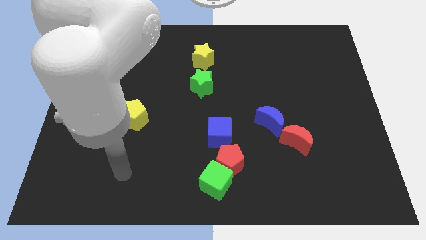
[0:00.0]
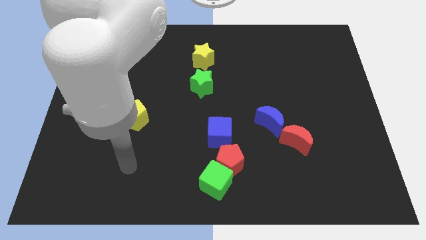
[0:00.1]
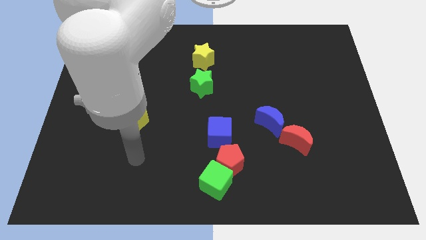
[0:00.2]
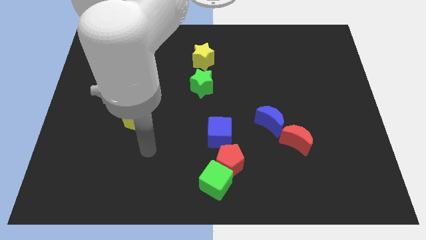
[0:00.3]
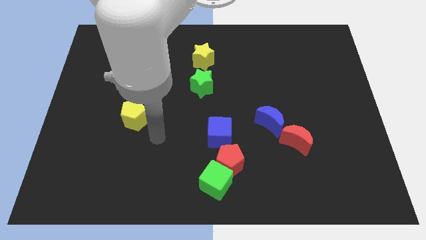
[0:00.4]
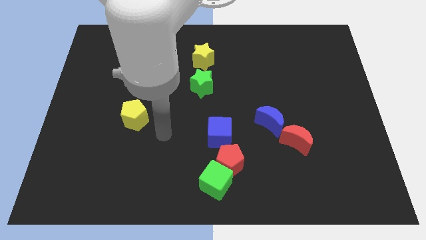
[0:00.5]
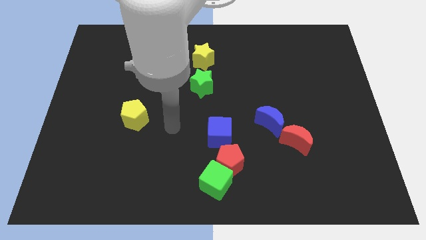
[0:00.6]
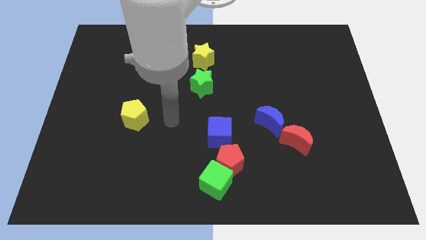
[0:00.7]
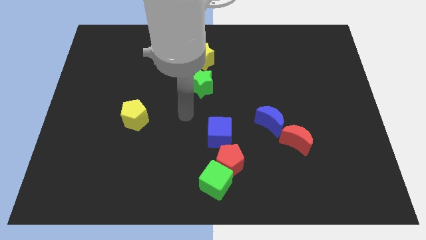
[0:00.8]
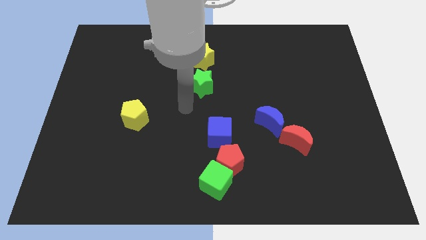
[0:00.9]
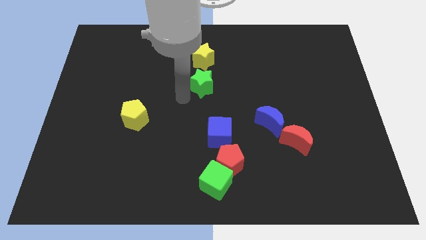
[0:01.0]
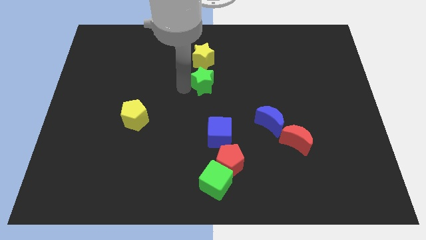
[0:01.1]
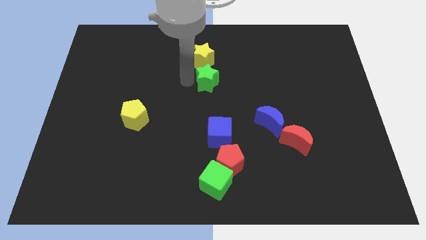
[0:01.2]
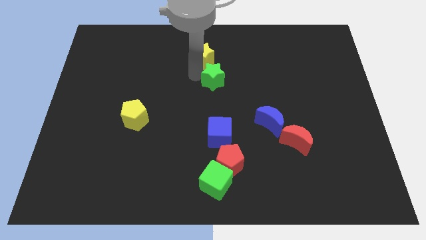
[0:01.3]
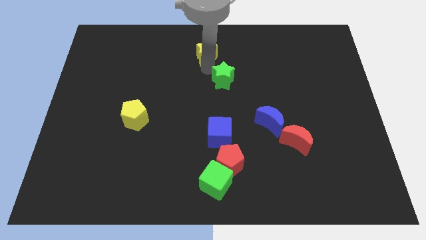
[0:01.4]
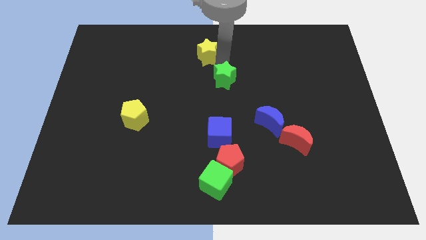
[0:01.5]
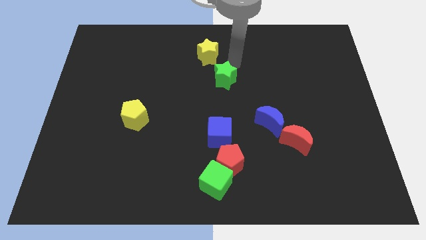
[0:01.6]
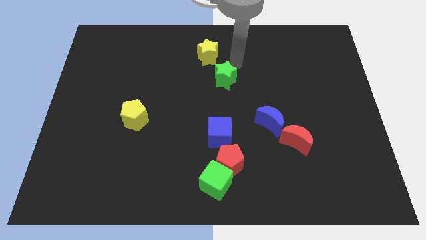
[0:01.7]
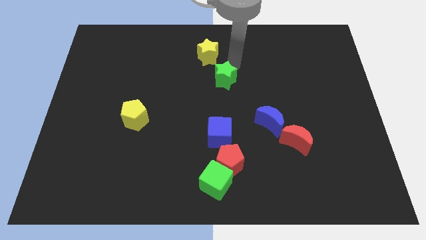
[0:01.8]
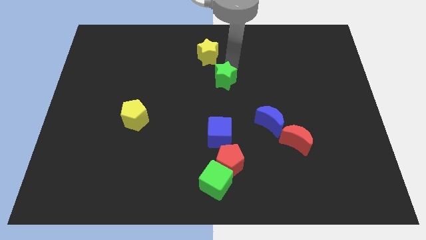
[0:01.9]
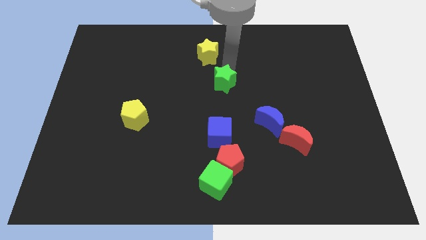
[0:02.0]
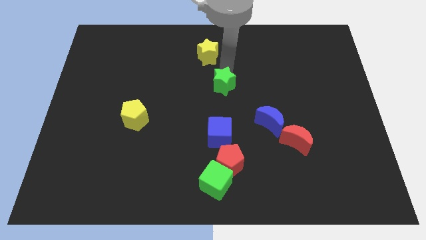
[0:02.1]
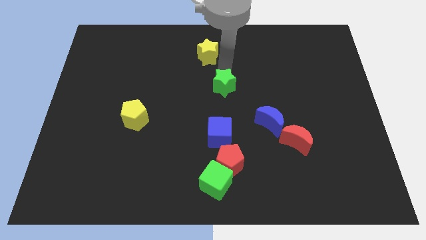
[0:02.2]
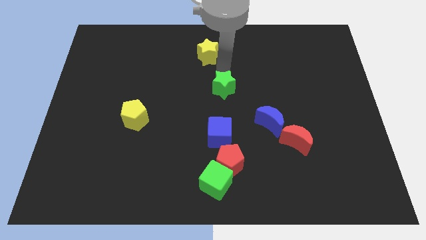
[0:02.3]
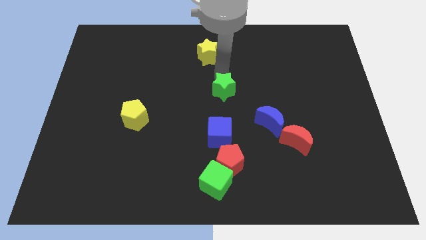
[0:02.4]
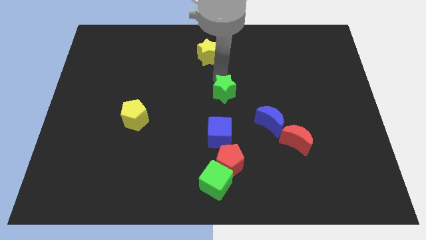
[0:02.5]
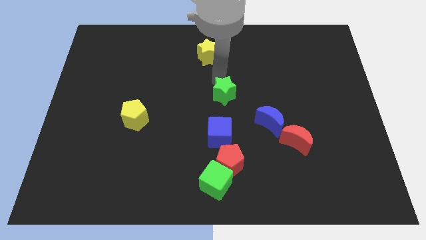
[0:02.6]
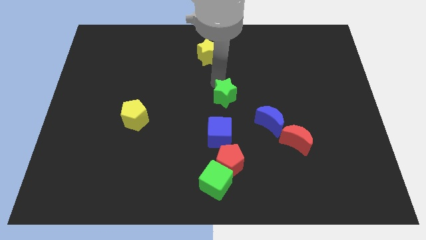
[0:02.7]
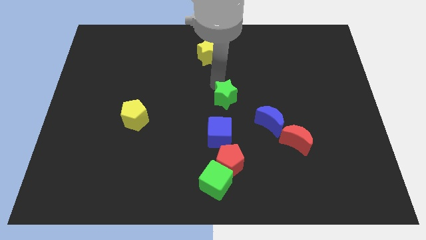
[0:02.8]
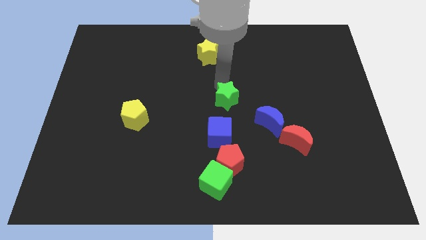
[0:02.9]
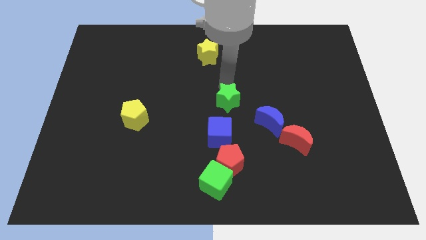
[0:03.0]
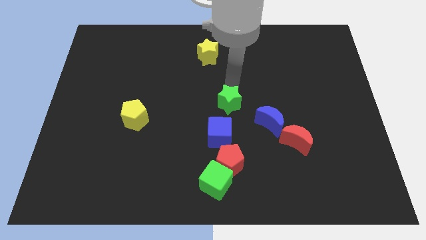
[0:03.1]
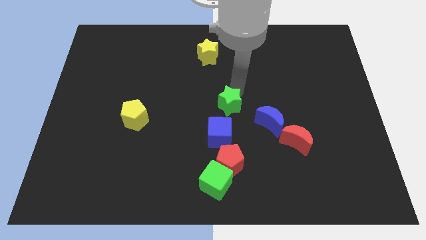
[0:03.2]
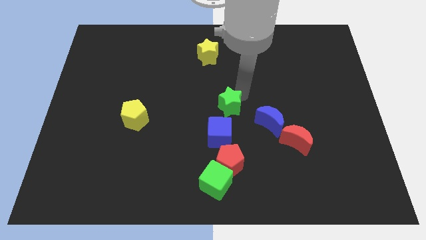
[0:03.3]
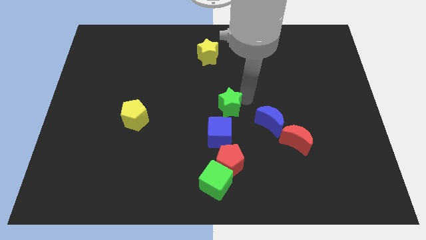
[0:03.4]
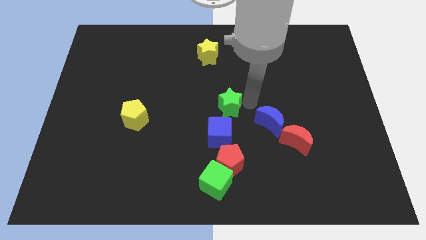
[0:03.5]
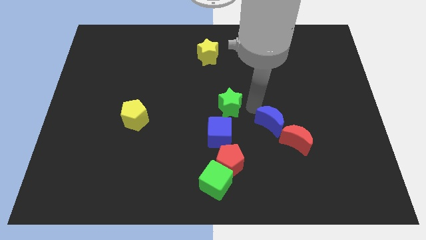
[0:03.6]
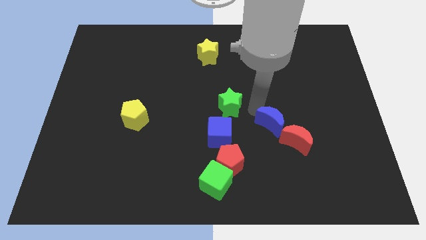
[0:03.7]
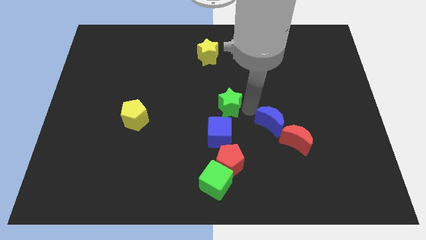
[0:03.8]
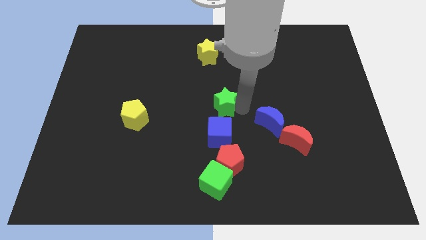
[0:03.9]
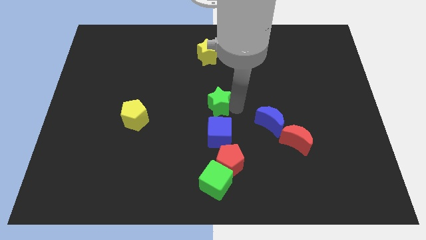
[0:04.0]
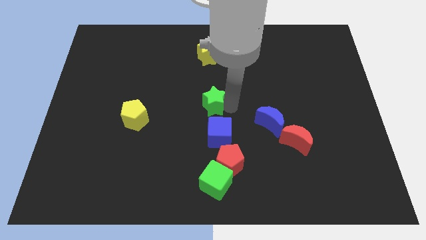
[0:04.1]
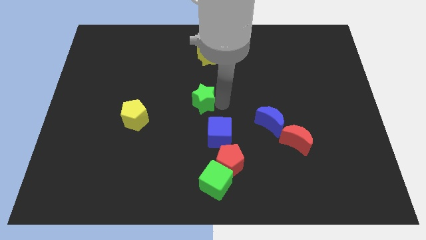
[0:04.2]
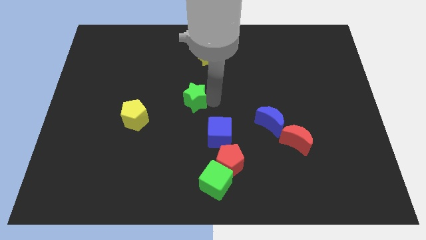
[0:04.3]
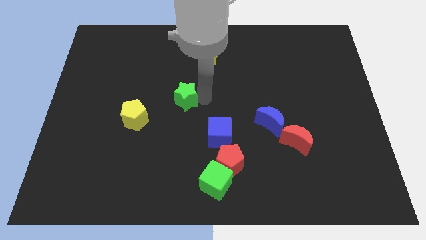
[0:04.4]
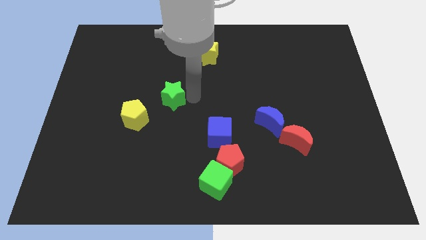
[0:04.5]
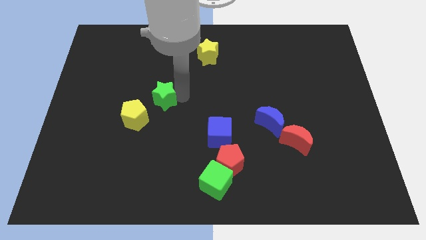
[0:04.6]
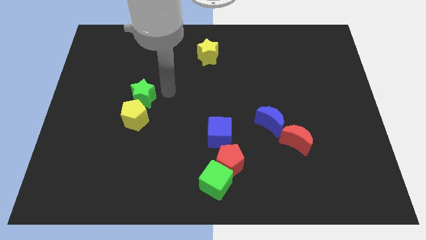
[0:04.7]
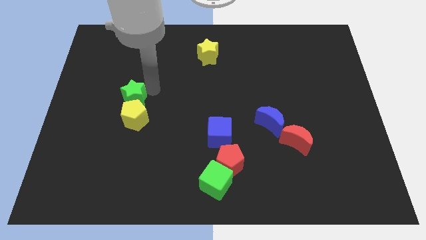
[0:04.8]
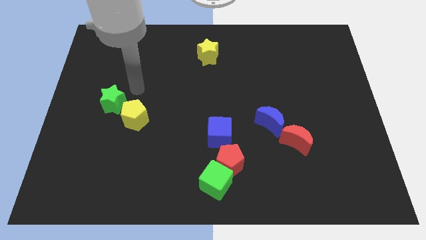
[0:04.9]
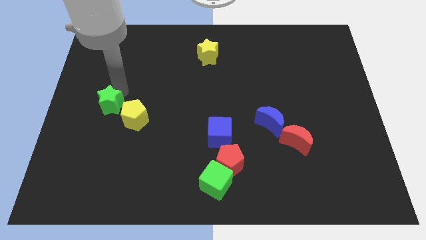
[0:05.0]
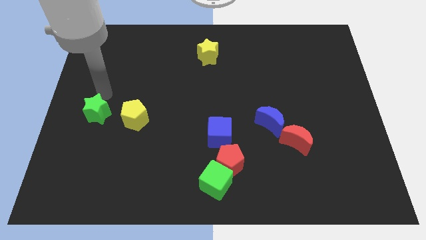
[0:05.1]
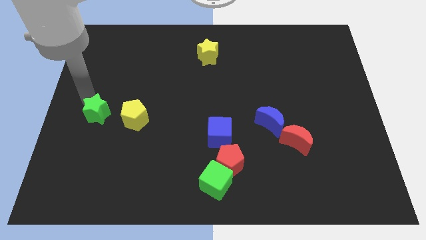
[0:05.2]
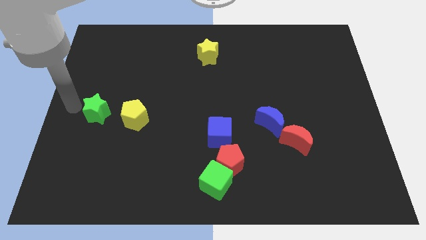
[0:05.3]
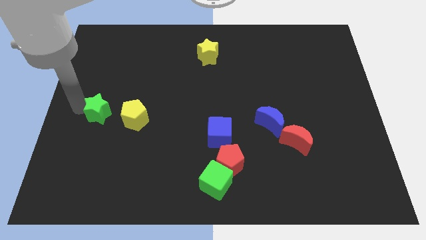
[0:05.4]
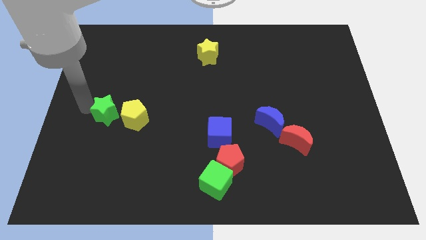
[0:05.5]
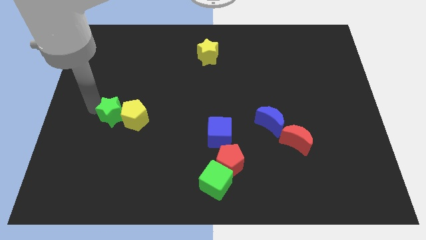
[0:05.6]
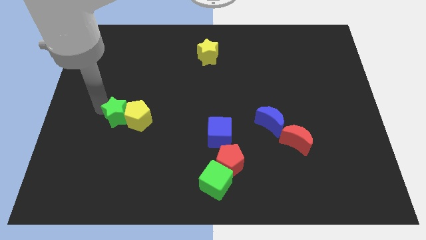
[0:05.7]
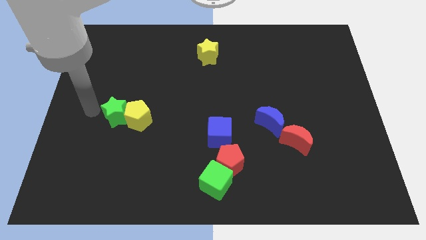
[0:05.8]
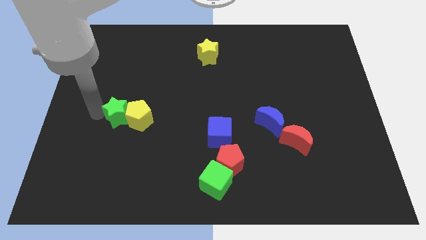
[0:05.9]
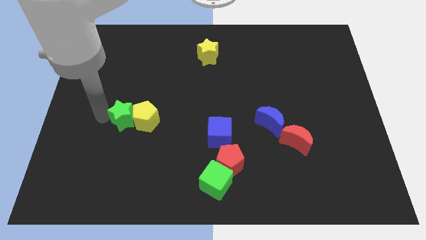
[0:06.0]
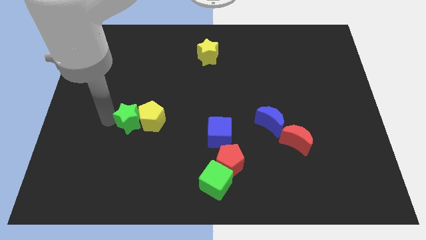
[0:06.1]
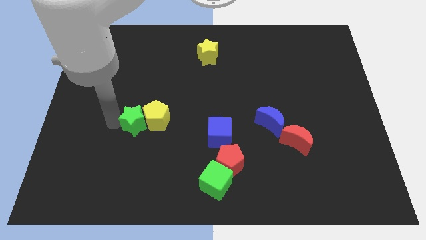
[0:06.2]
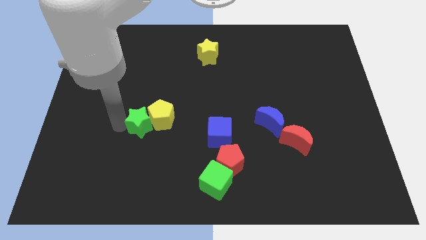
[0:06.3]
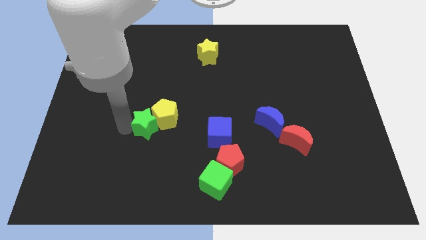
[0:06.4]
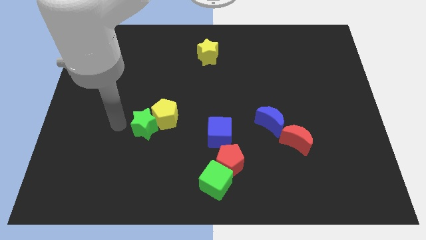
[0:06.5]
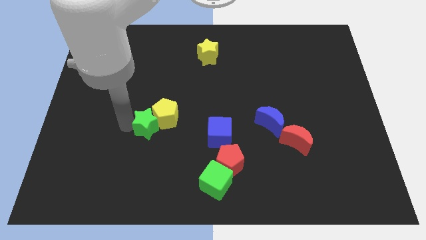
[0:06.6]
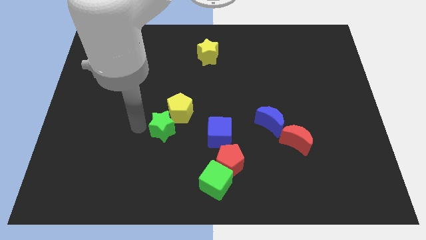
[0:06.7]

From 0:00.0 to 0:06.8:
move the green star downwards slightly

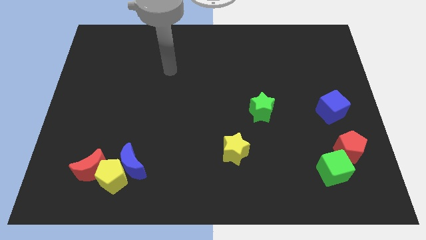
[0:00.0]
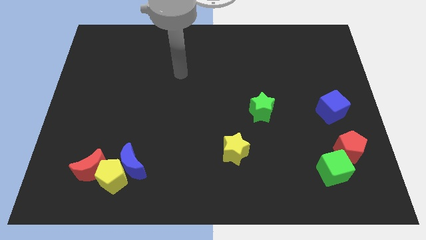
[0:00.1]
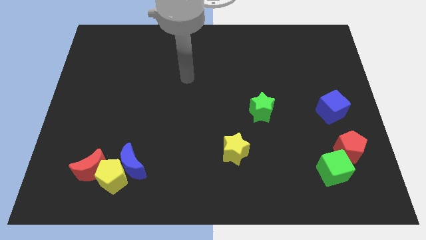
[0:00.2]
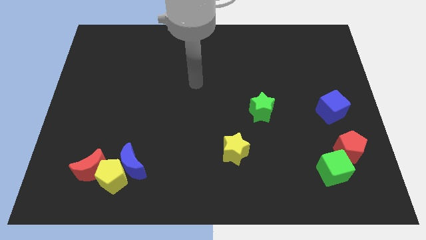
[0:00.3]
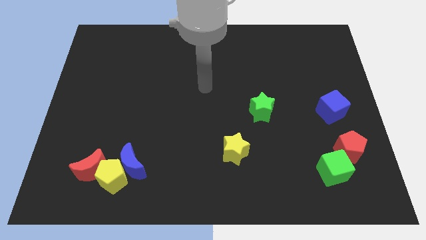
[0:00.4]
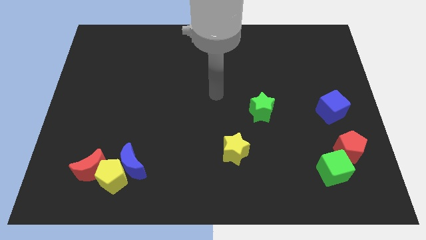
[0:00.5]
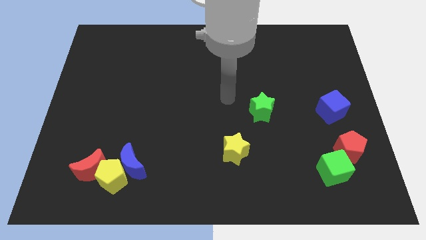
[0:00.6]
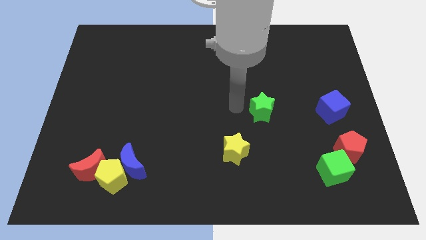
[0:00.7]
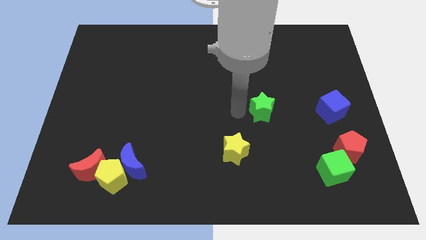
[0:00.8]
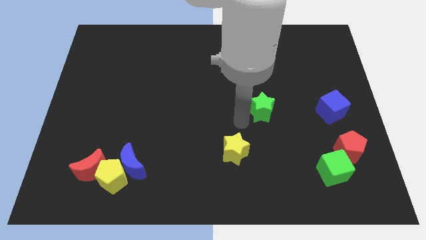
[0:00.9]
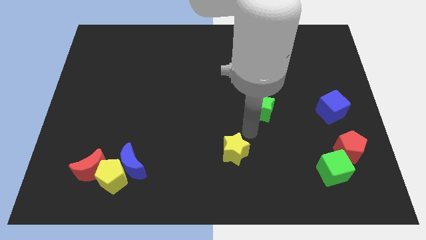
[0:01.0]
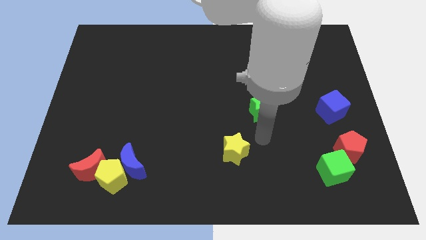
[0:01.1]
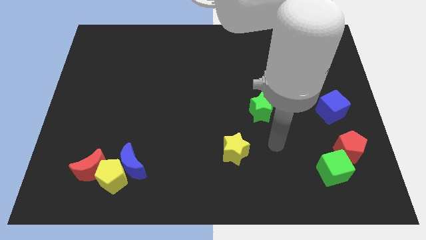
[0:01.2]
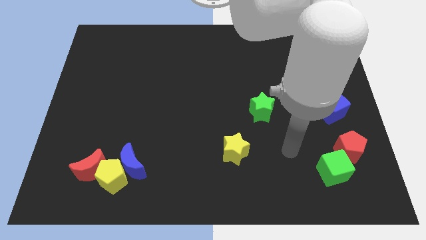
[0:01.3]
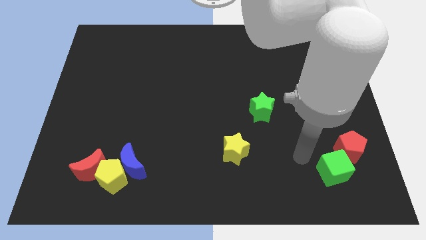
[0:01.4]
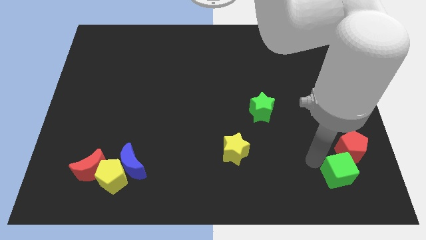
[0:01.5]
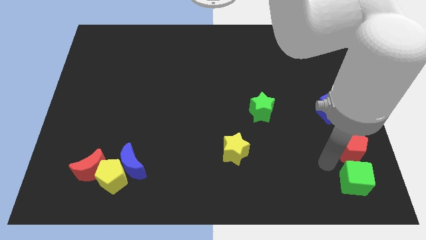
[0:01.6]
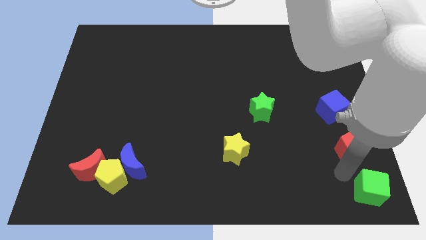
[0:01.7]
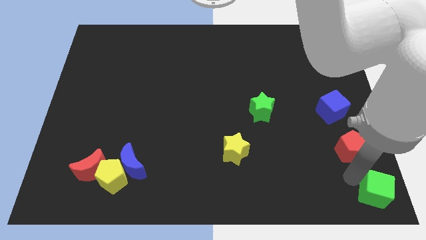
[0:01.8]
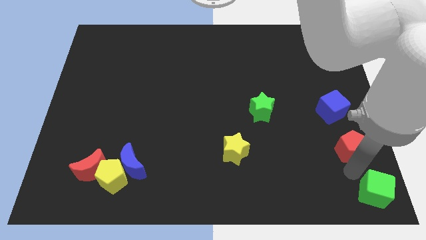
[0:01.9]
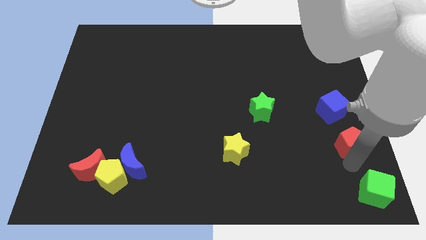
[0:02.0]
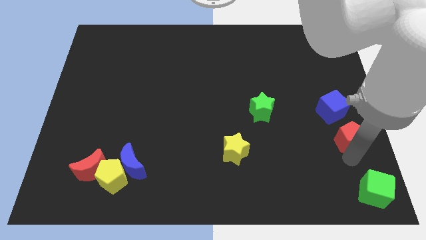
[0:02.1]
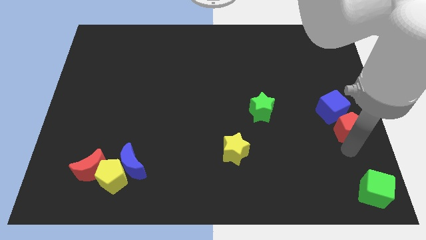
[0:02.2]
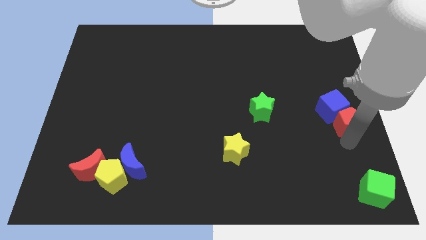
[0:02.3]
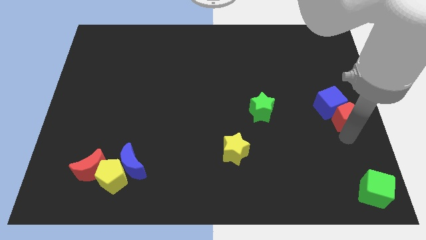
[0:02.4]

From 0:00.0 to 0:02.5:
move the red pentagon upwards a little
